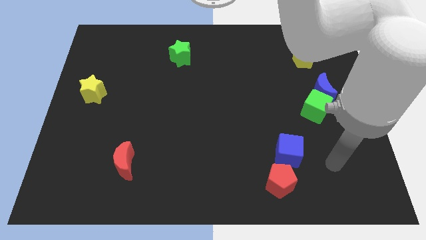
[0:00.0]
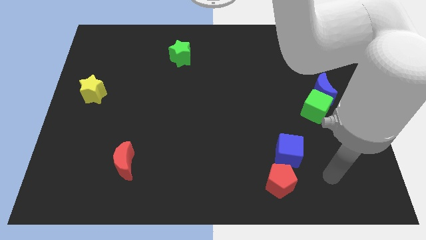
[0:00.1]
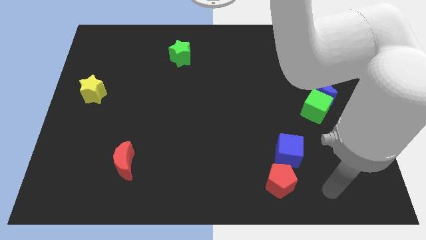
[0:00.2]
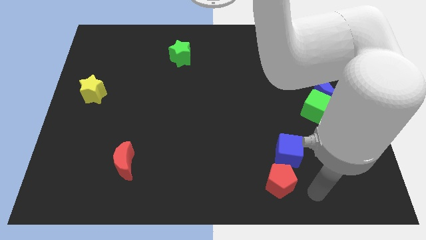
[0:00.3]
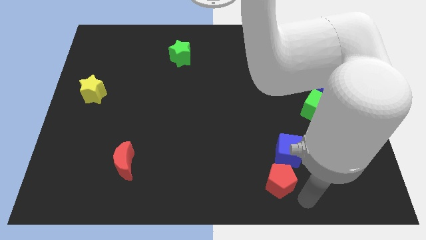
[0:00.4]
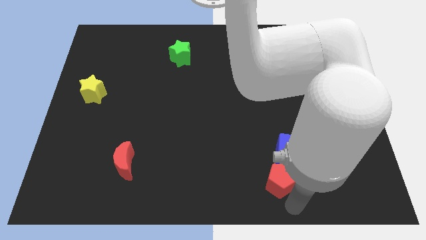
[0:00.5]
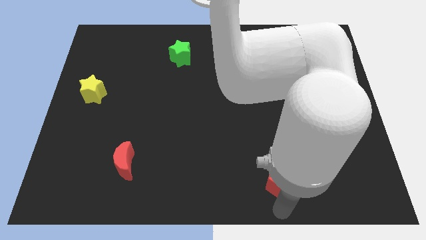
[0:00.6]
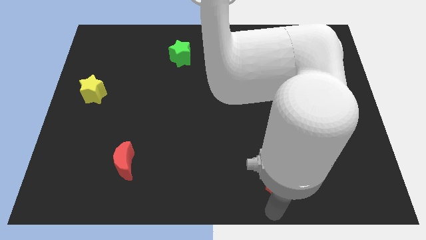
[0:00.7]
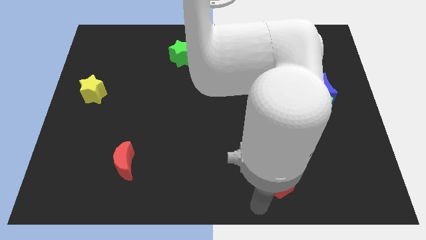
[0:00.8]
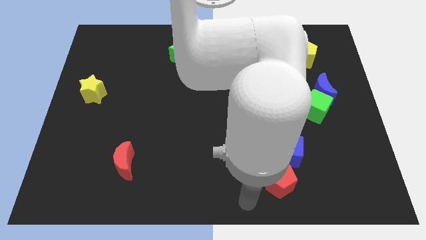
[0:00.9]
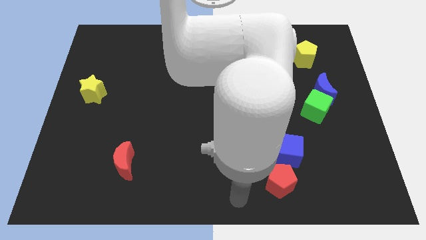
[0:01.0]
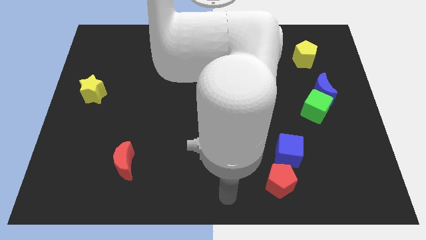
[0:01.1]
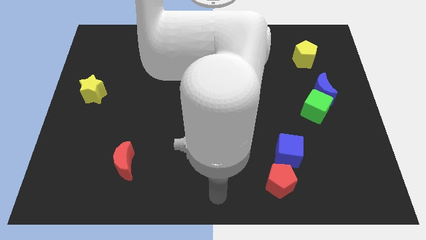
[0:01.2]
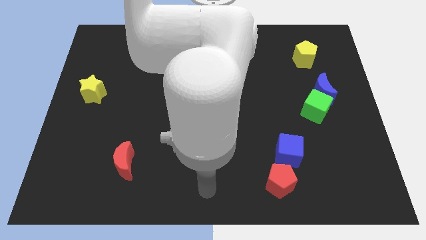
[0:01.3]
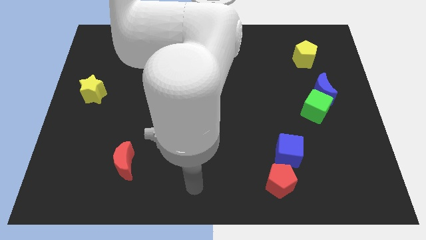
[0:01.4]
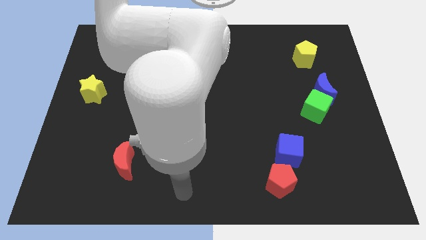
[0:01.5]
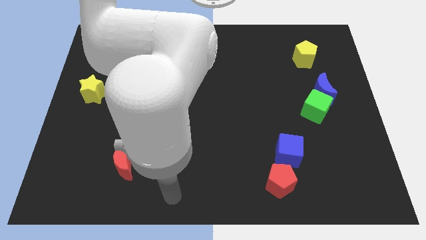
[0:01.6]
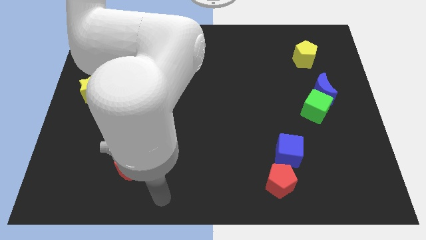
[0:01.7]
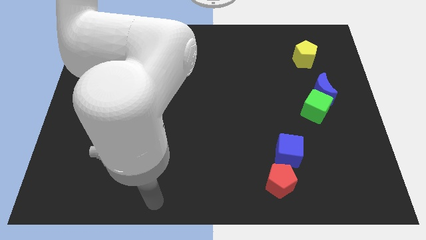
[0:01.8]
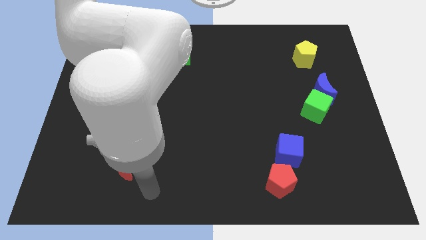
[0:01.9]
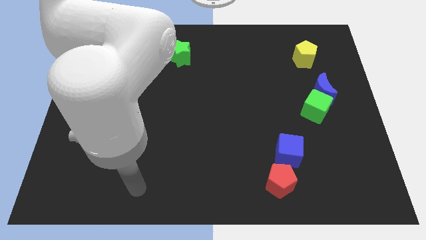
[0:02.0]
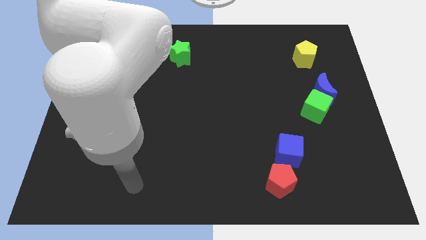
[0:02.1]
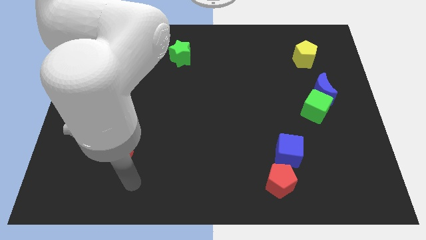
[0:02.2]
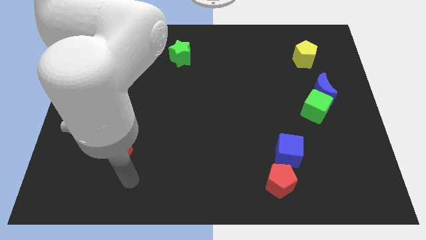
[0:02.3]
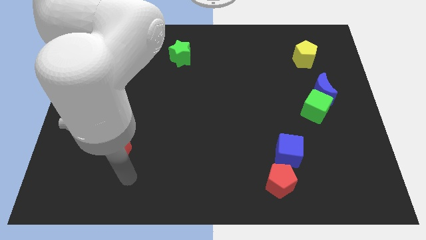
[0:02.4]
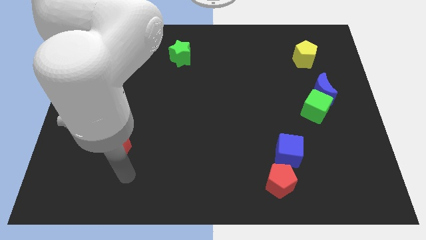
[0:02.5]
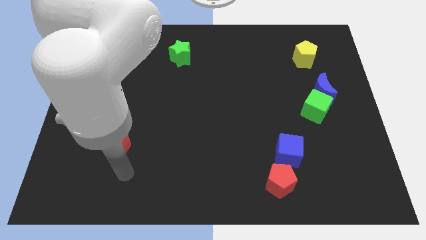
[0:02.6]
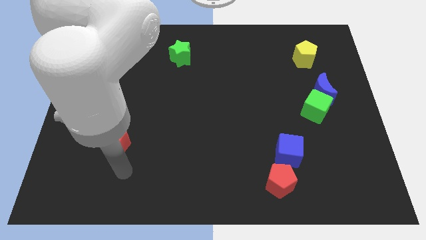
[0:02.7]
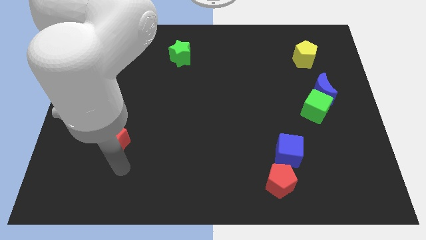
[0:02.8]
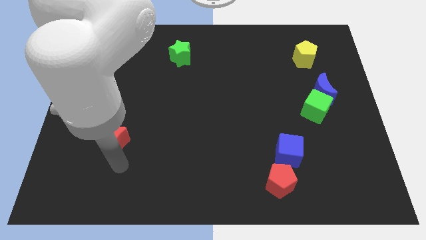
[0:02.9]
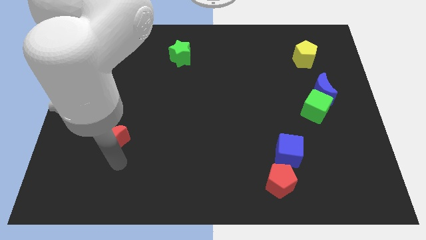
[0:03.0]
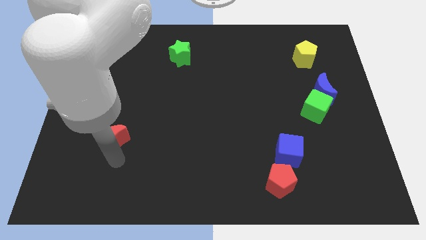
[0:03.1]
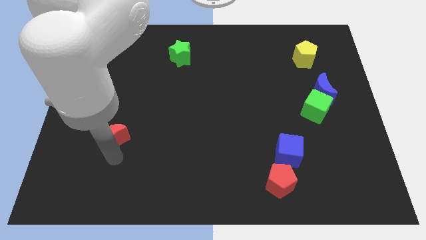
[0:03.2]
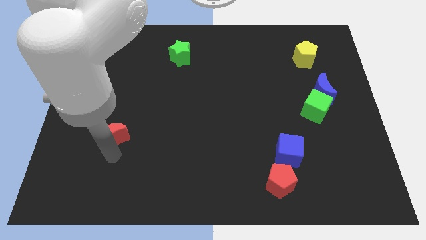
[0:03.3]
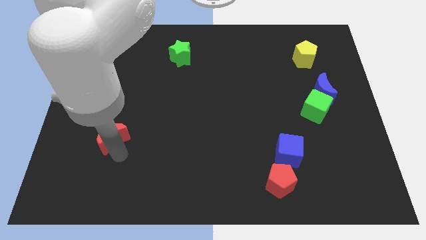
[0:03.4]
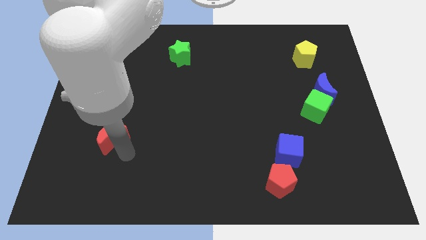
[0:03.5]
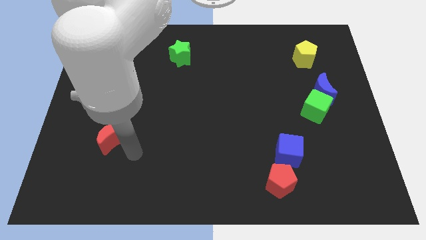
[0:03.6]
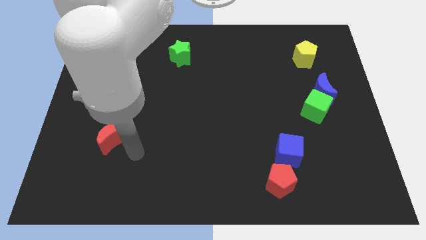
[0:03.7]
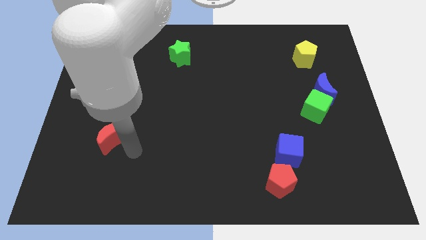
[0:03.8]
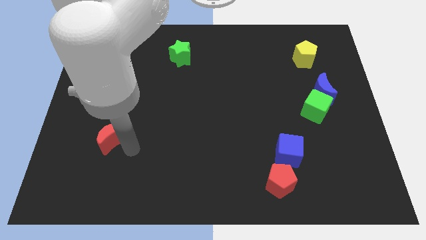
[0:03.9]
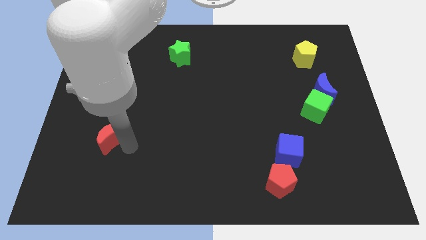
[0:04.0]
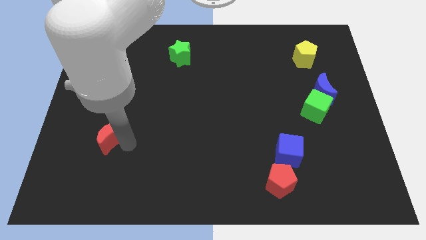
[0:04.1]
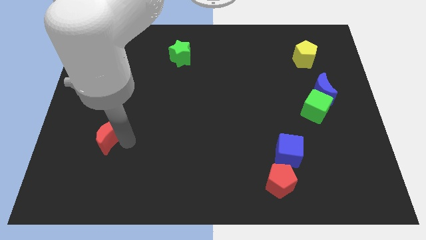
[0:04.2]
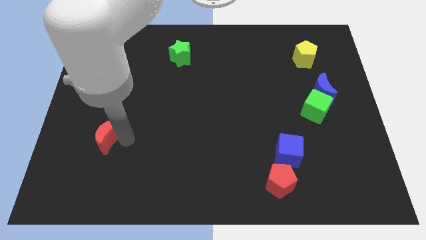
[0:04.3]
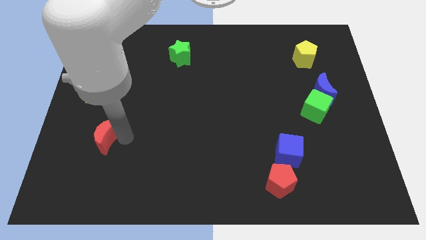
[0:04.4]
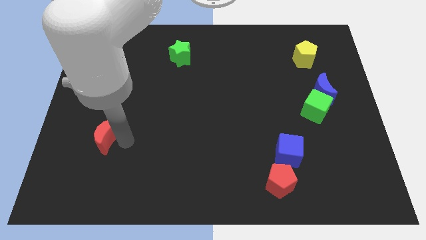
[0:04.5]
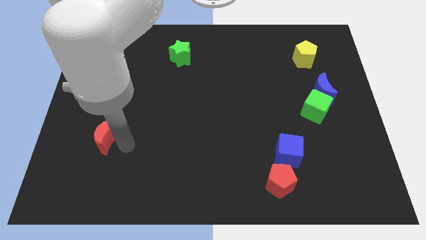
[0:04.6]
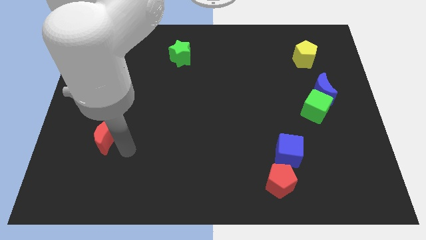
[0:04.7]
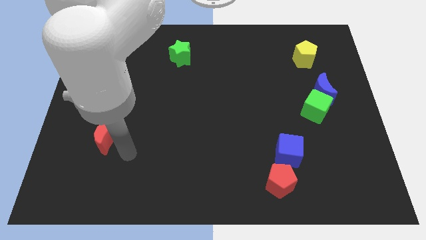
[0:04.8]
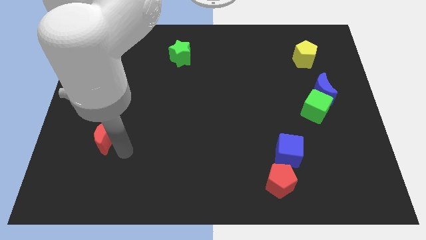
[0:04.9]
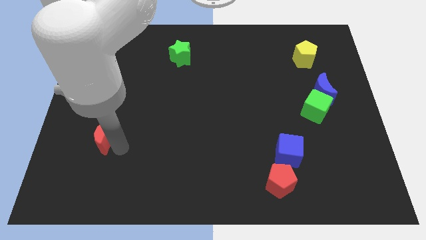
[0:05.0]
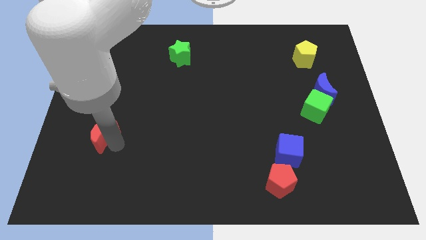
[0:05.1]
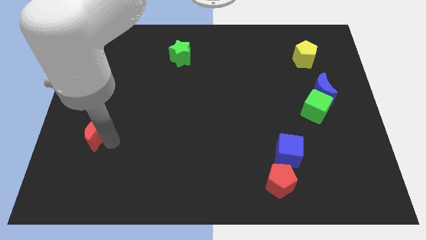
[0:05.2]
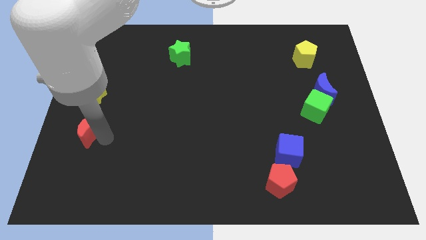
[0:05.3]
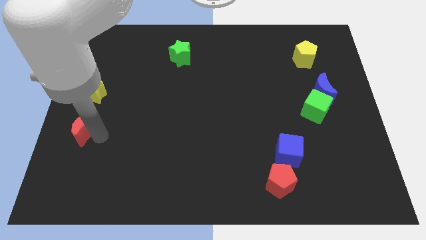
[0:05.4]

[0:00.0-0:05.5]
put the red moon to the center left
